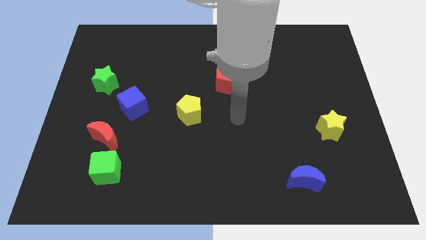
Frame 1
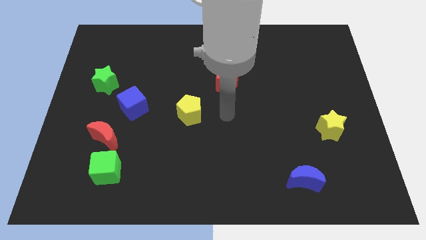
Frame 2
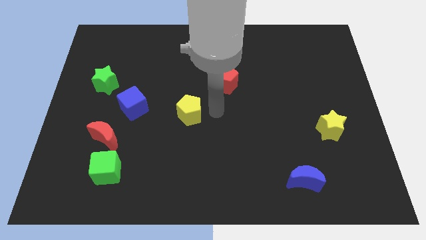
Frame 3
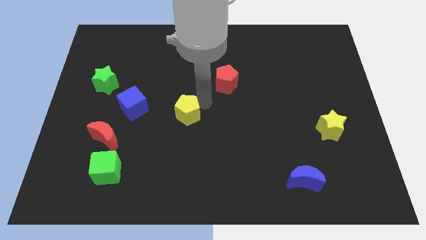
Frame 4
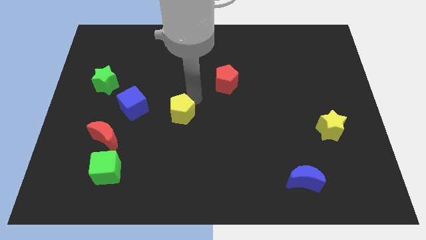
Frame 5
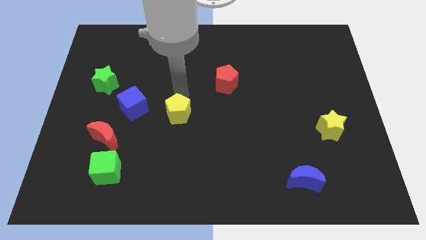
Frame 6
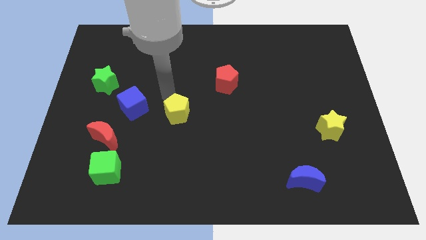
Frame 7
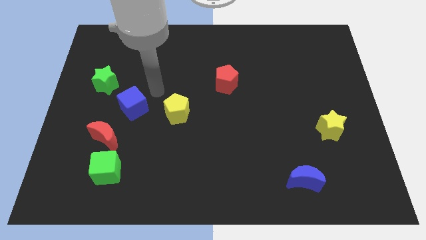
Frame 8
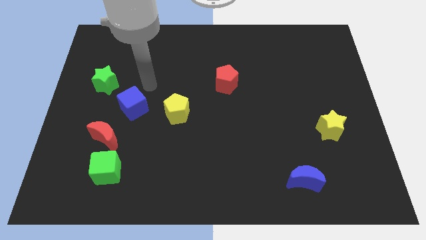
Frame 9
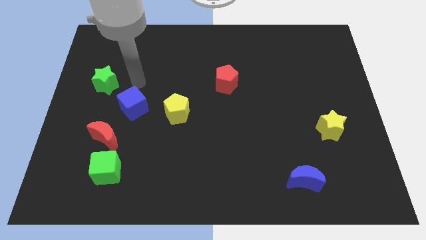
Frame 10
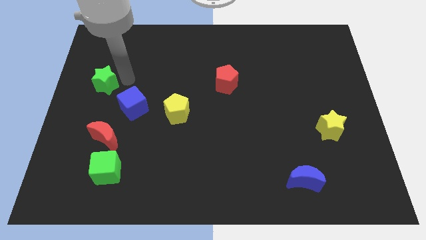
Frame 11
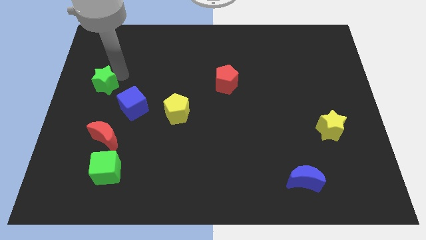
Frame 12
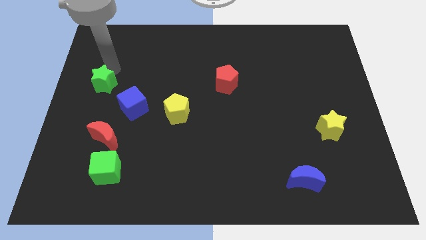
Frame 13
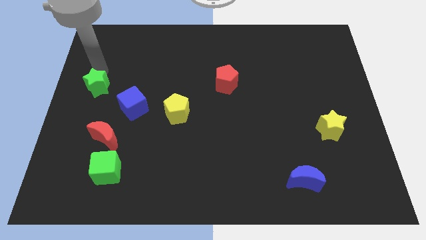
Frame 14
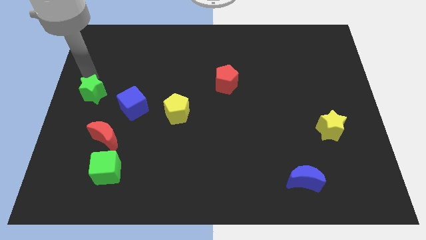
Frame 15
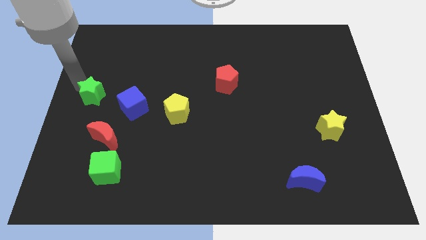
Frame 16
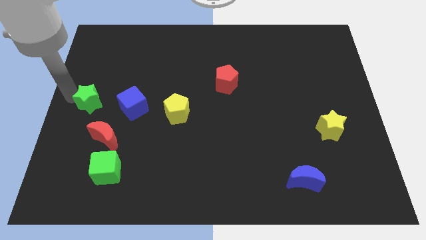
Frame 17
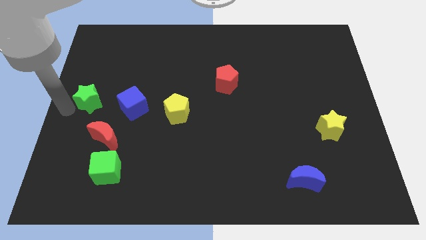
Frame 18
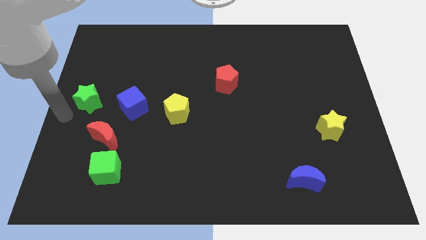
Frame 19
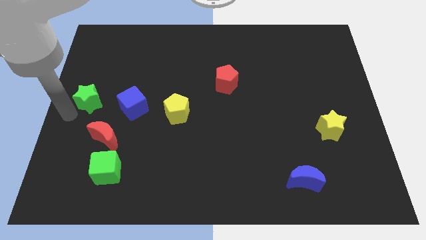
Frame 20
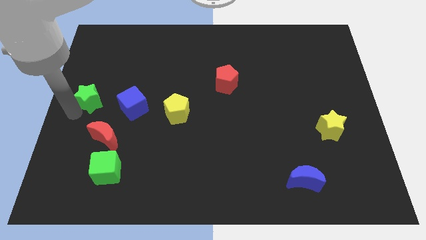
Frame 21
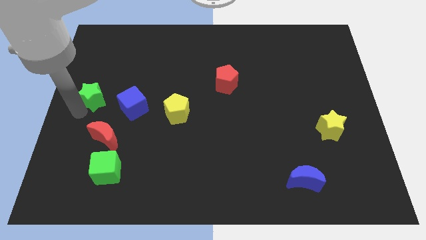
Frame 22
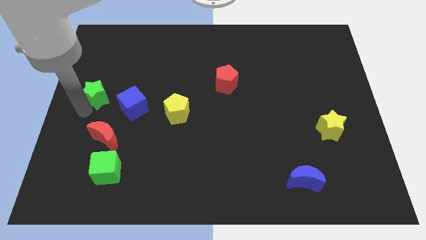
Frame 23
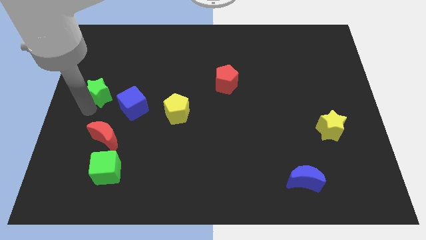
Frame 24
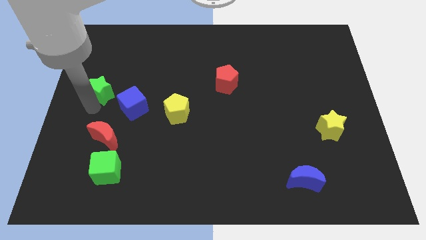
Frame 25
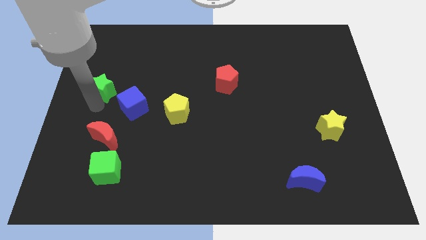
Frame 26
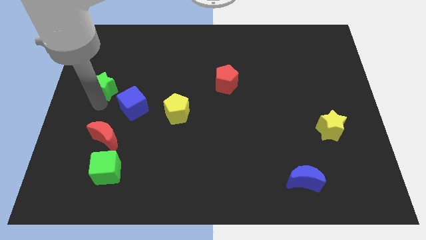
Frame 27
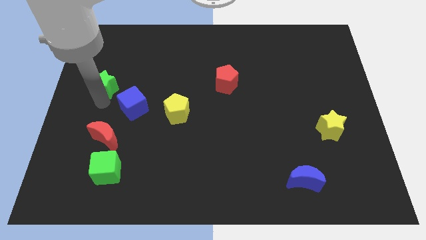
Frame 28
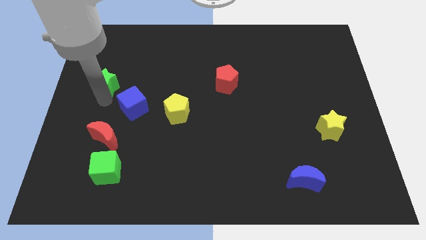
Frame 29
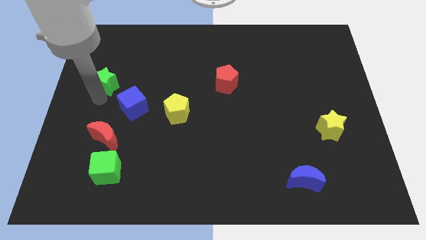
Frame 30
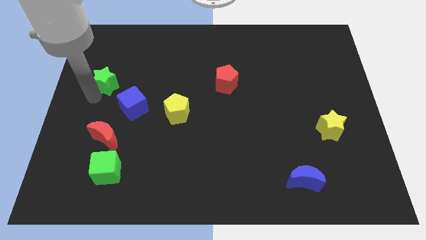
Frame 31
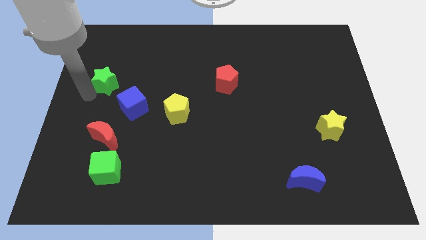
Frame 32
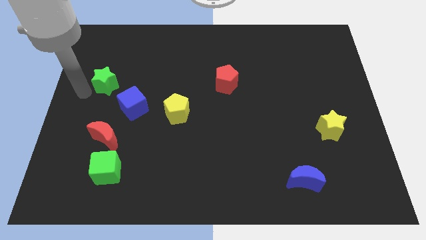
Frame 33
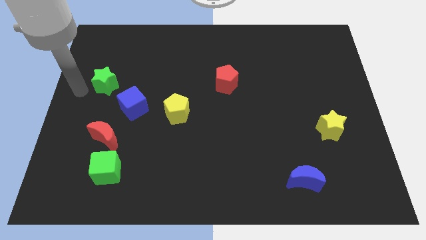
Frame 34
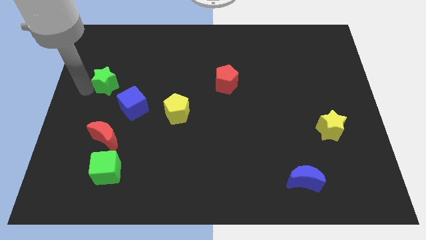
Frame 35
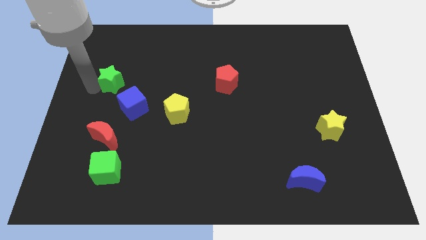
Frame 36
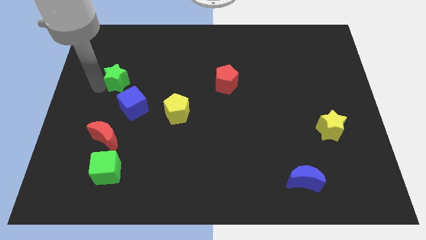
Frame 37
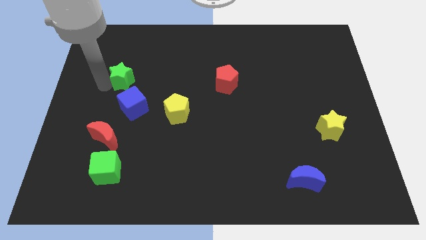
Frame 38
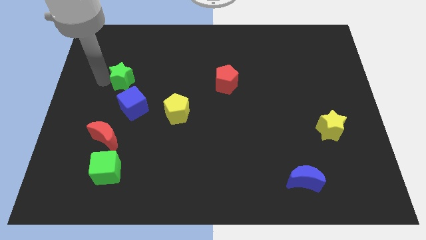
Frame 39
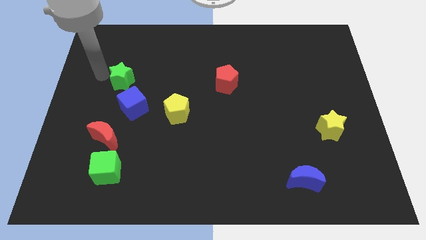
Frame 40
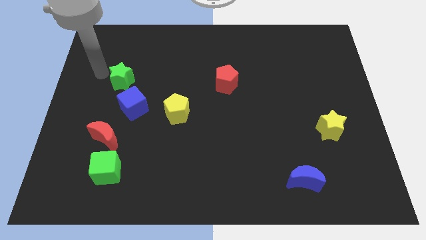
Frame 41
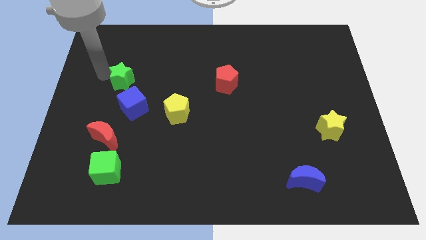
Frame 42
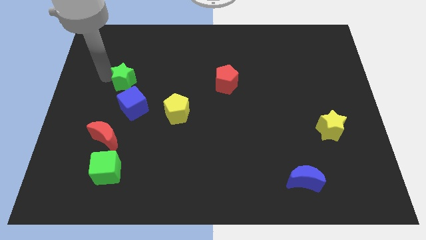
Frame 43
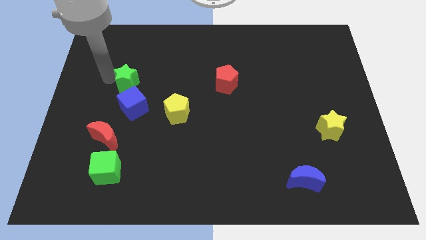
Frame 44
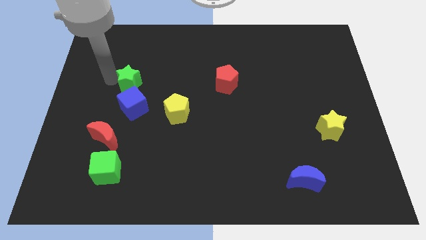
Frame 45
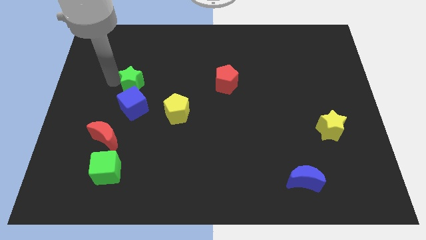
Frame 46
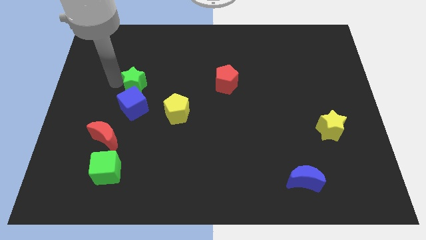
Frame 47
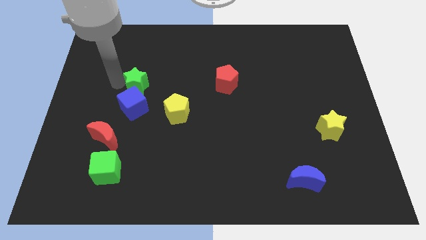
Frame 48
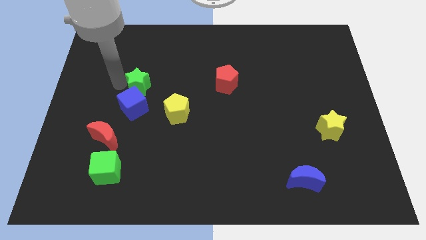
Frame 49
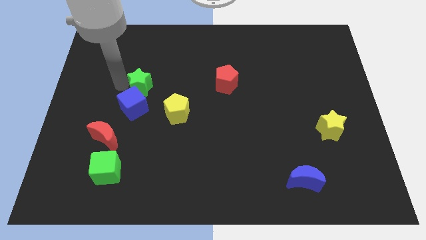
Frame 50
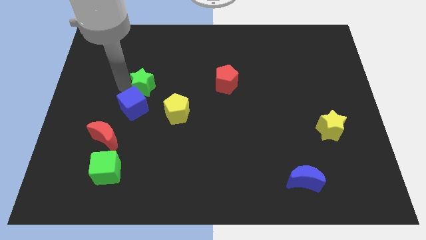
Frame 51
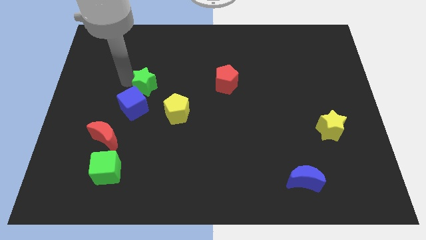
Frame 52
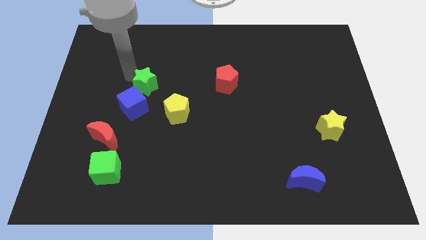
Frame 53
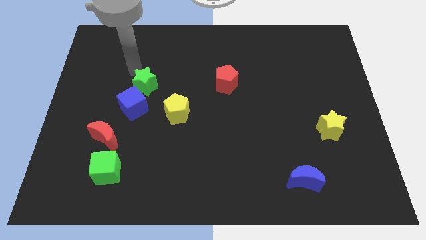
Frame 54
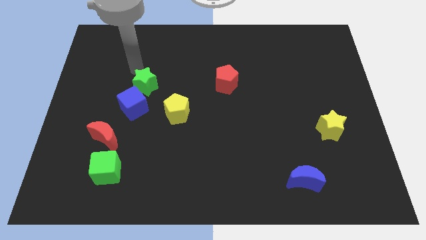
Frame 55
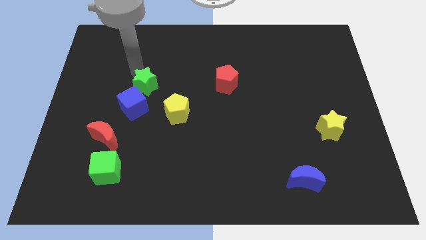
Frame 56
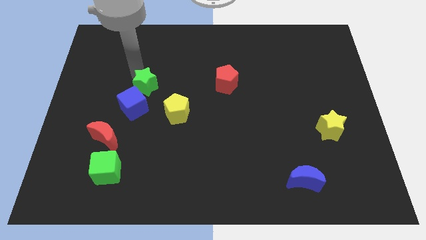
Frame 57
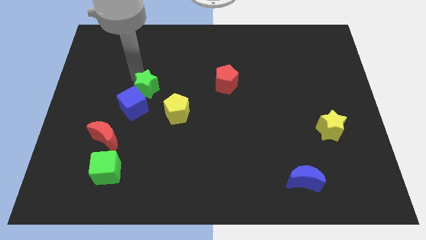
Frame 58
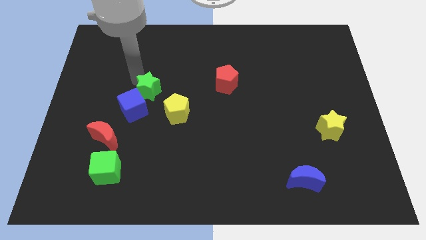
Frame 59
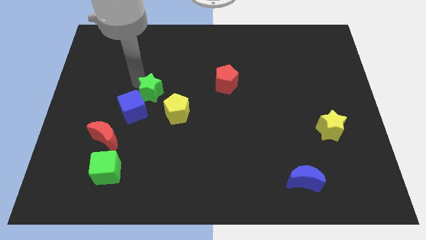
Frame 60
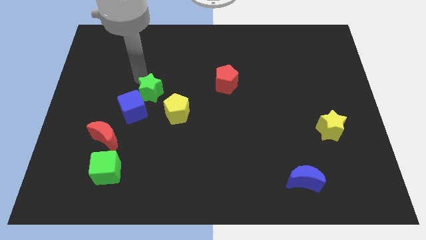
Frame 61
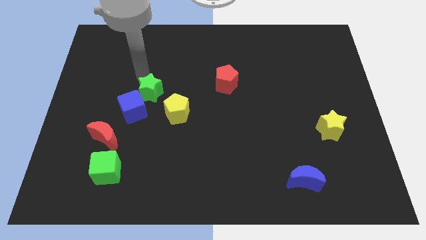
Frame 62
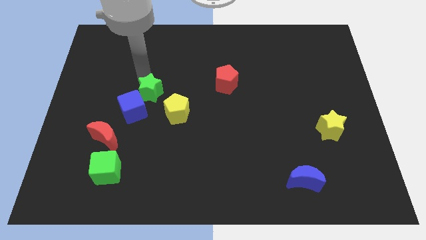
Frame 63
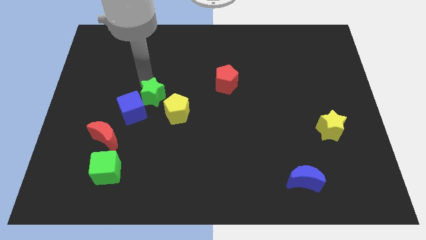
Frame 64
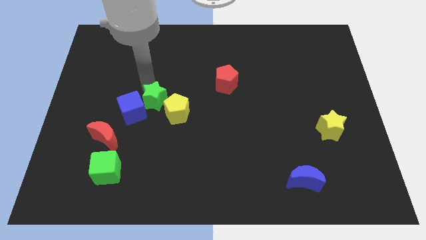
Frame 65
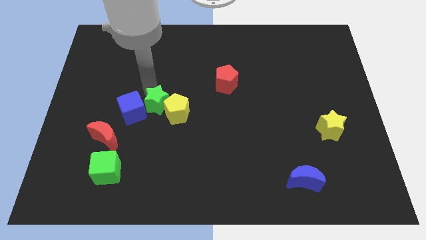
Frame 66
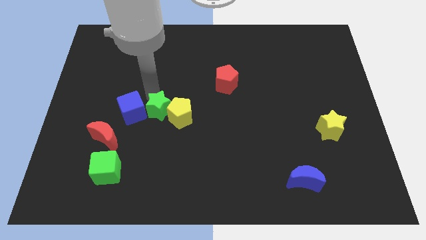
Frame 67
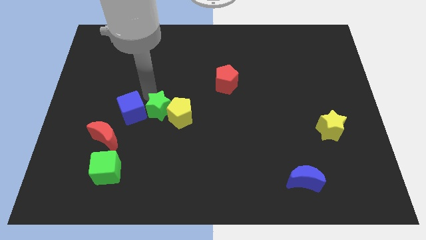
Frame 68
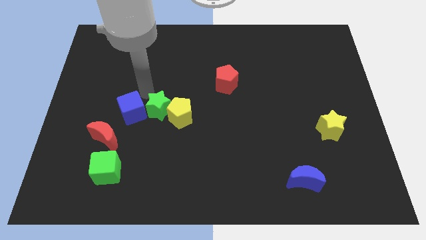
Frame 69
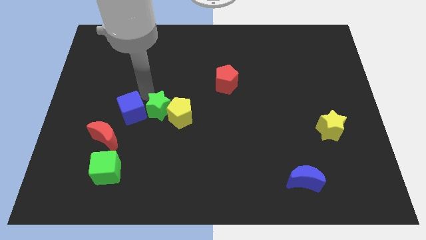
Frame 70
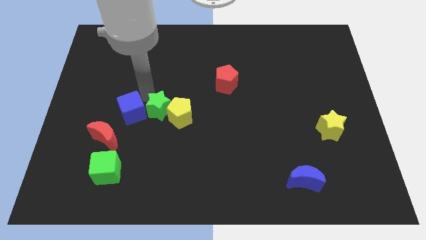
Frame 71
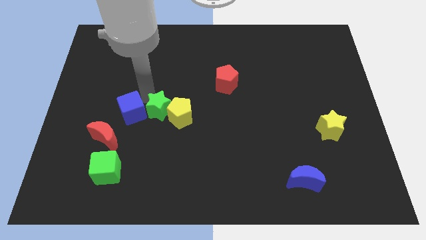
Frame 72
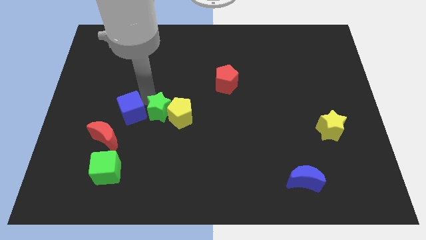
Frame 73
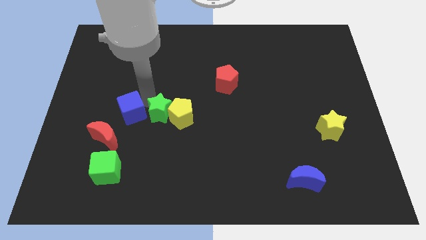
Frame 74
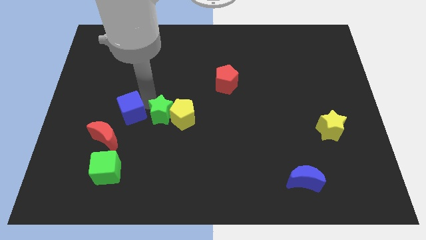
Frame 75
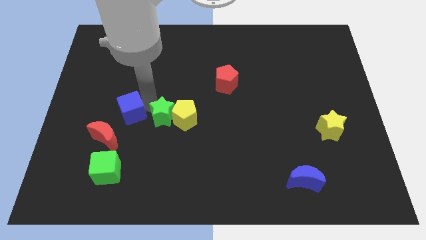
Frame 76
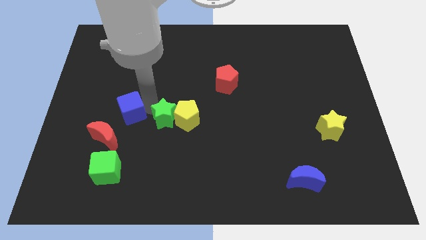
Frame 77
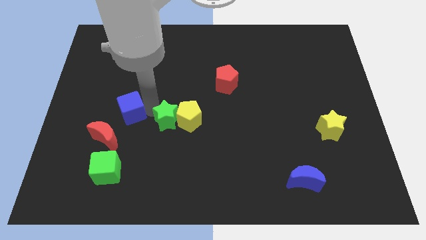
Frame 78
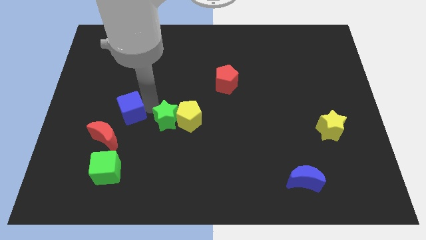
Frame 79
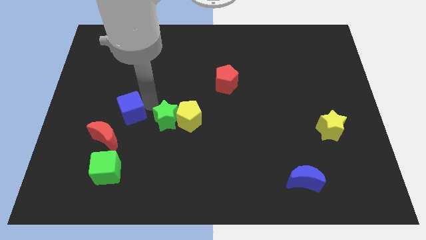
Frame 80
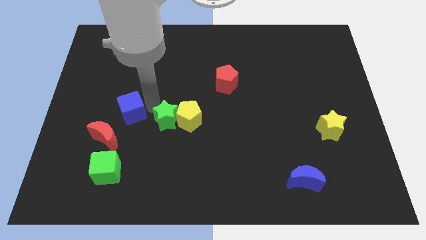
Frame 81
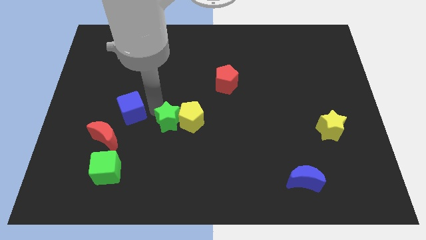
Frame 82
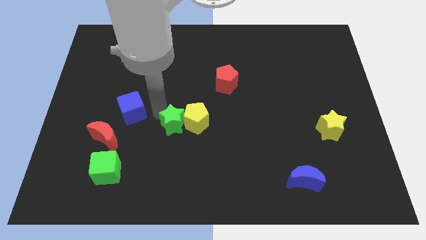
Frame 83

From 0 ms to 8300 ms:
move the green star down and to the right diagonally

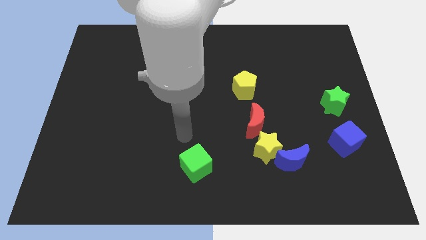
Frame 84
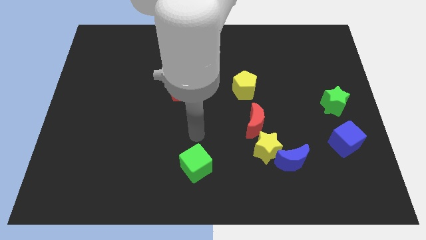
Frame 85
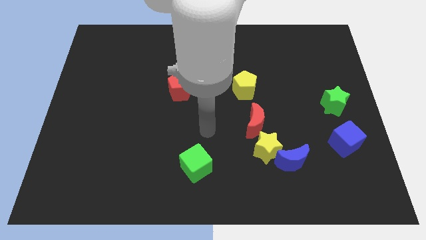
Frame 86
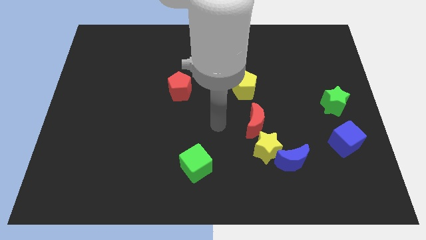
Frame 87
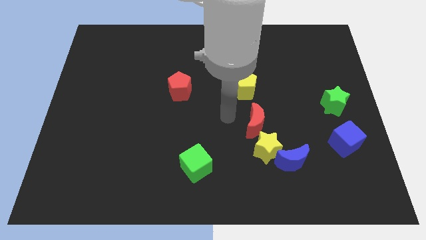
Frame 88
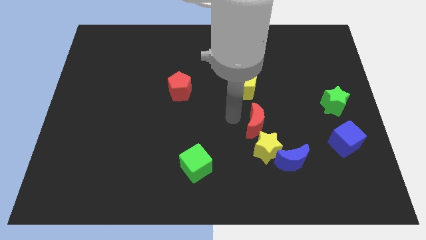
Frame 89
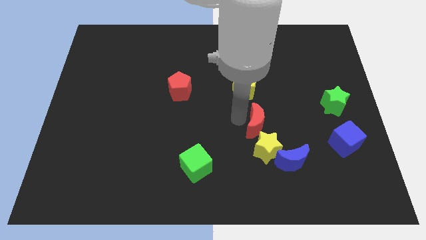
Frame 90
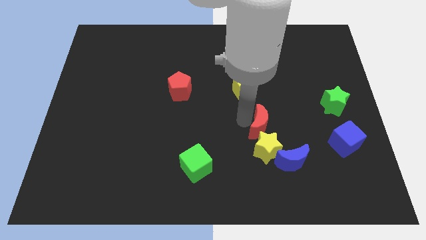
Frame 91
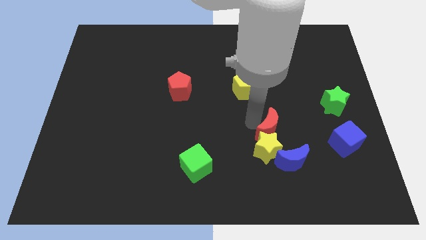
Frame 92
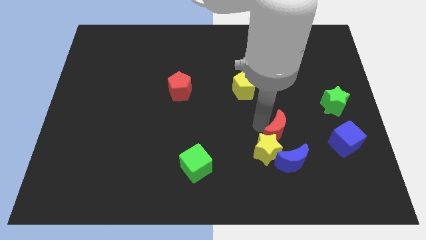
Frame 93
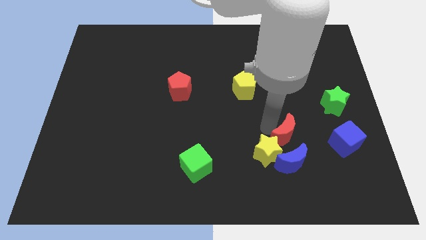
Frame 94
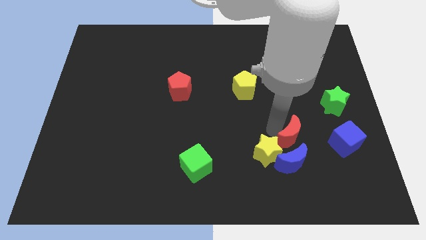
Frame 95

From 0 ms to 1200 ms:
slightly push the red moon diagonally downwards and to the right
